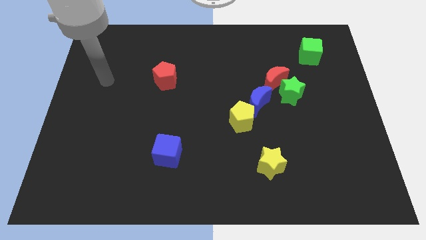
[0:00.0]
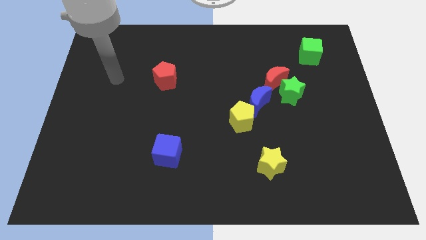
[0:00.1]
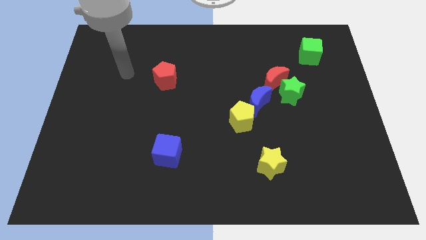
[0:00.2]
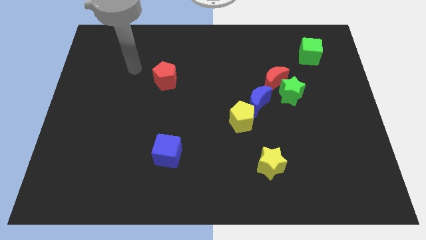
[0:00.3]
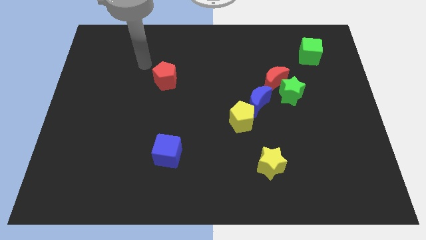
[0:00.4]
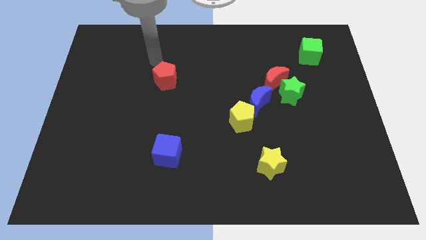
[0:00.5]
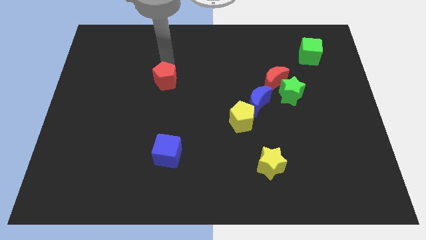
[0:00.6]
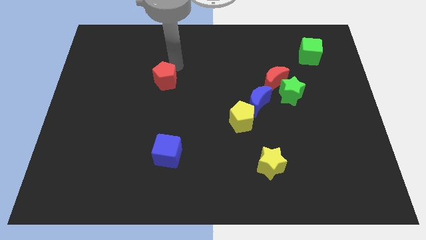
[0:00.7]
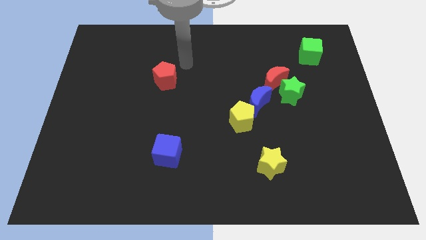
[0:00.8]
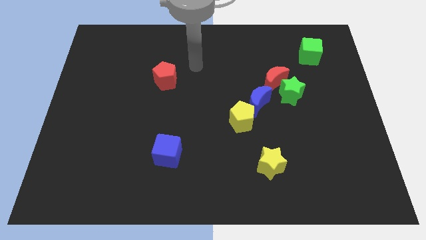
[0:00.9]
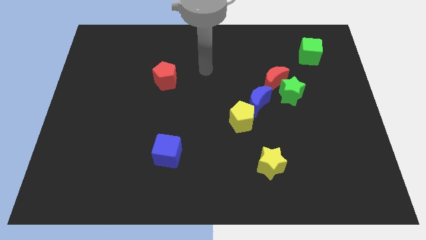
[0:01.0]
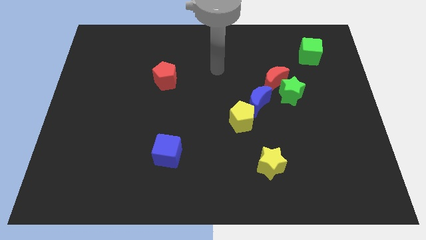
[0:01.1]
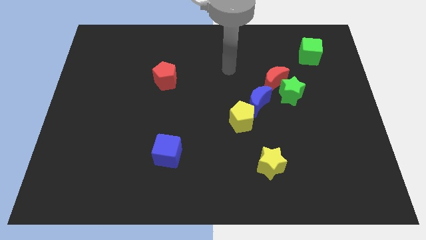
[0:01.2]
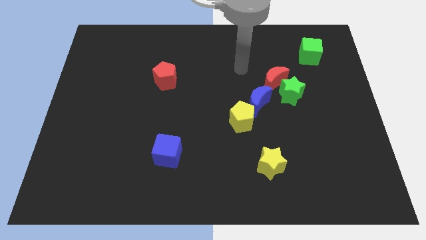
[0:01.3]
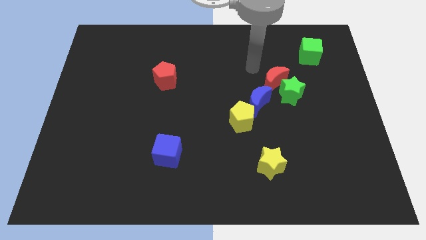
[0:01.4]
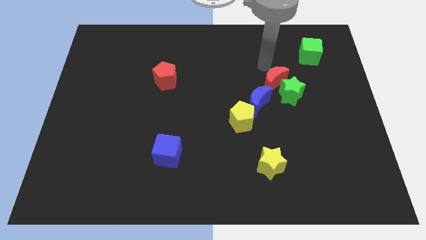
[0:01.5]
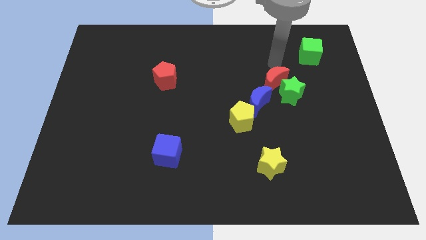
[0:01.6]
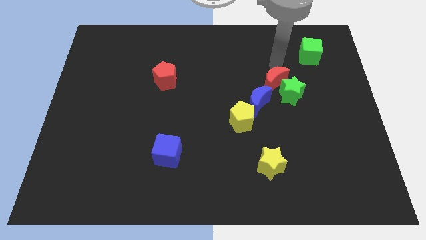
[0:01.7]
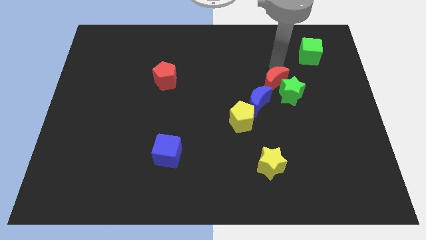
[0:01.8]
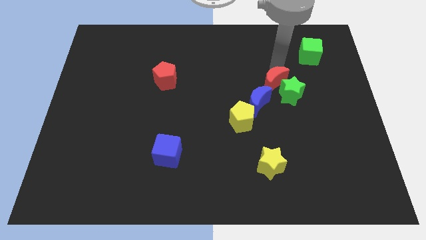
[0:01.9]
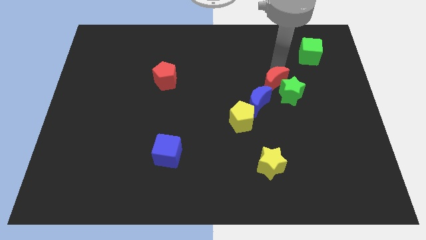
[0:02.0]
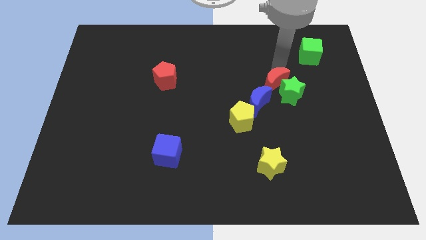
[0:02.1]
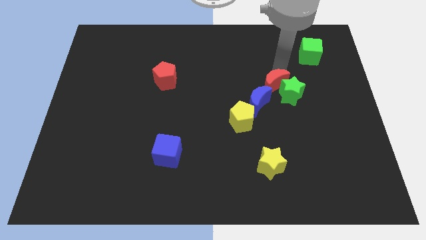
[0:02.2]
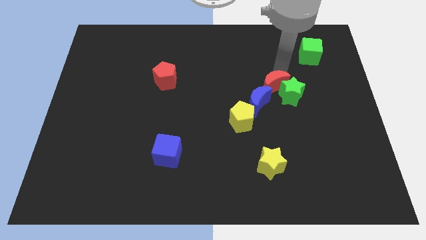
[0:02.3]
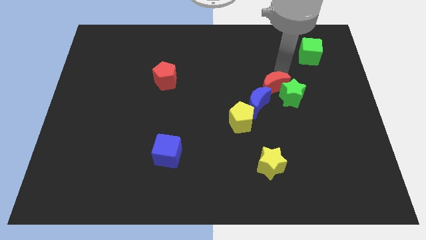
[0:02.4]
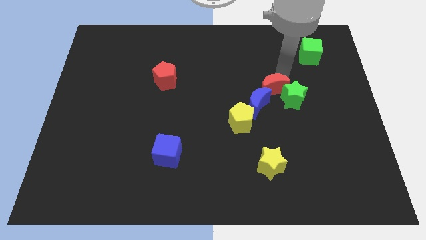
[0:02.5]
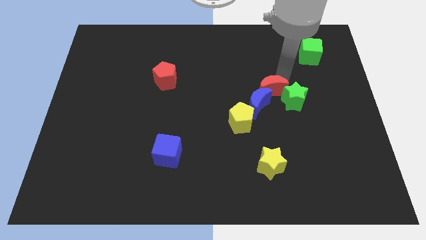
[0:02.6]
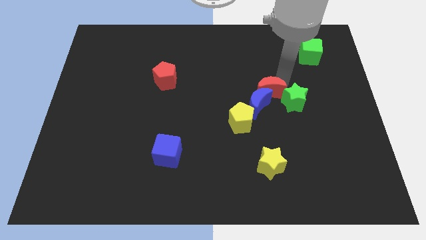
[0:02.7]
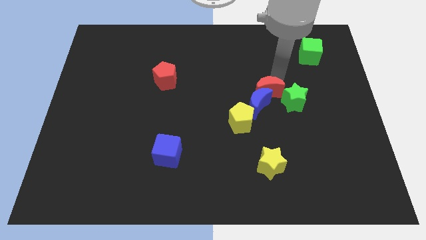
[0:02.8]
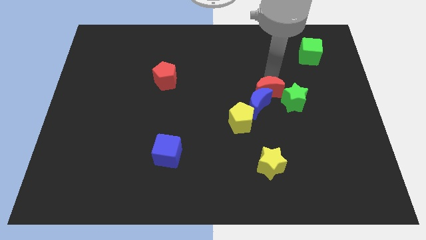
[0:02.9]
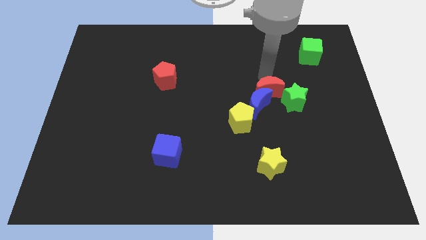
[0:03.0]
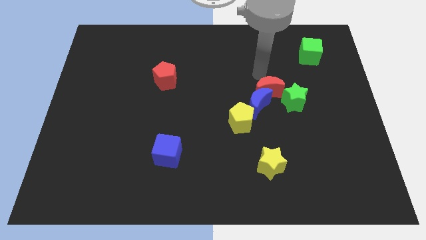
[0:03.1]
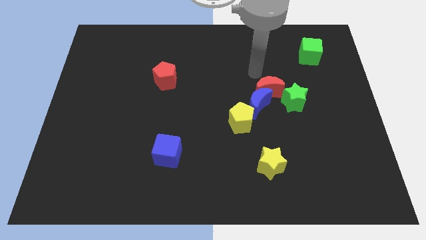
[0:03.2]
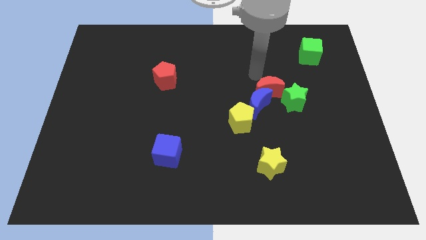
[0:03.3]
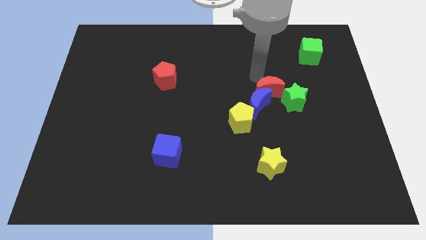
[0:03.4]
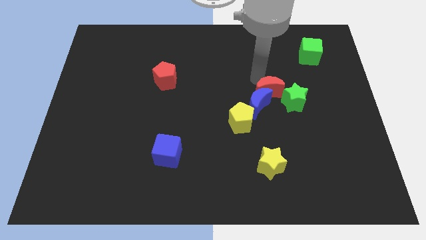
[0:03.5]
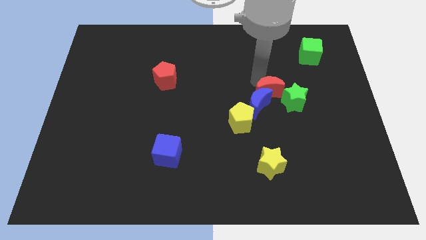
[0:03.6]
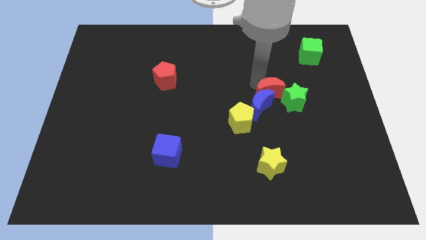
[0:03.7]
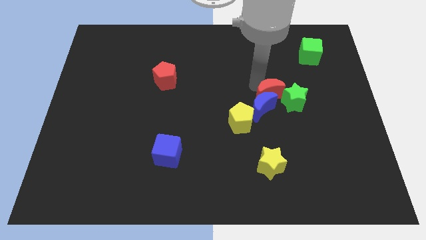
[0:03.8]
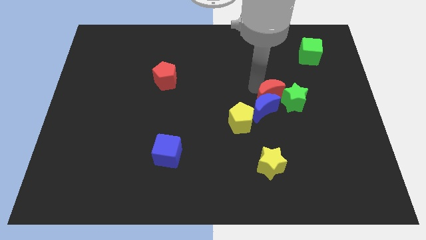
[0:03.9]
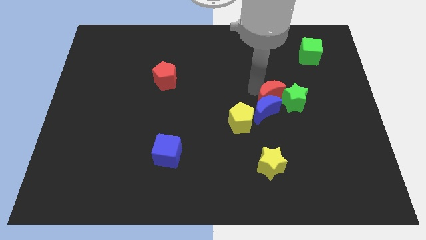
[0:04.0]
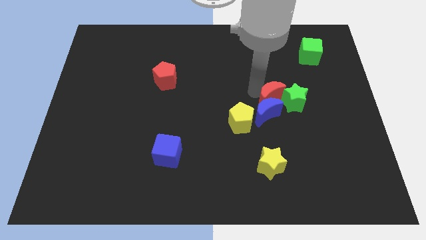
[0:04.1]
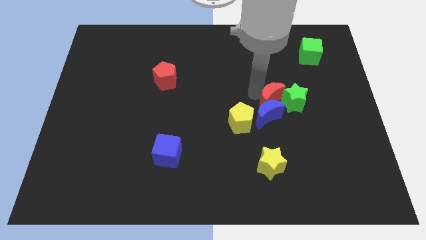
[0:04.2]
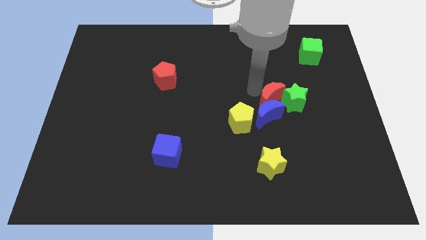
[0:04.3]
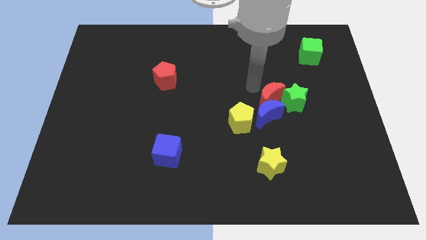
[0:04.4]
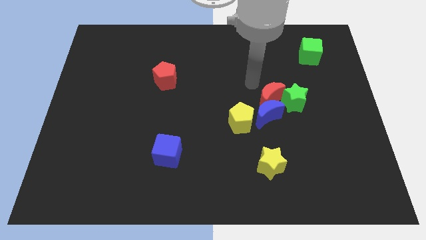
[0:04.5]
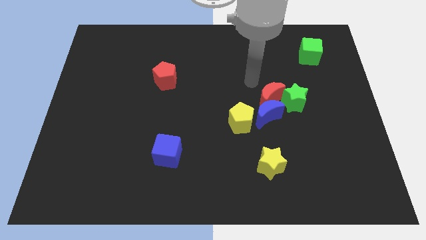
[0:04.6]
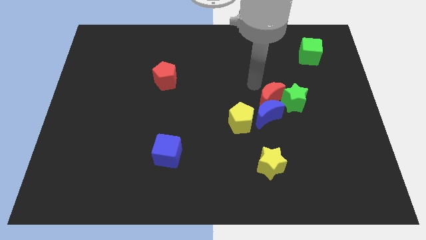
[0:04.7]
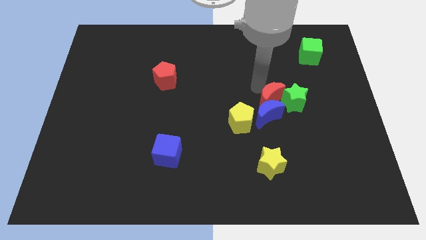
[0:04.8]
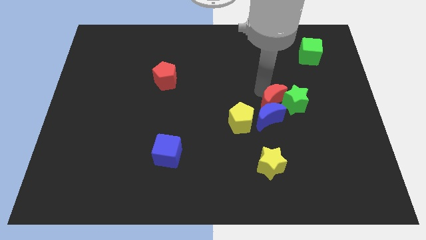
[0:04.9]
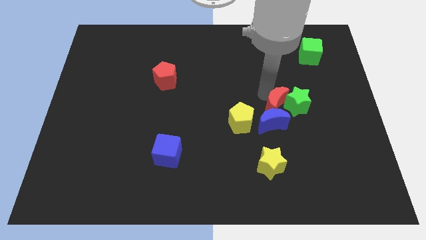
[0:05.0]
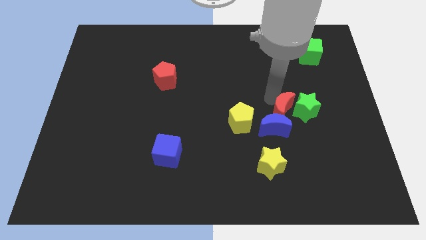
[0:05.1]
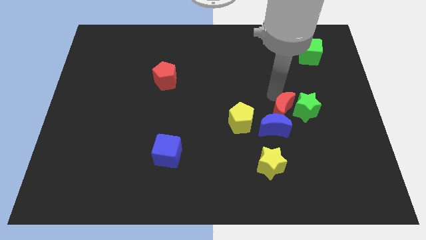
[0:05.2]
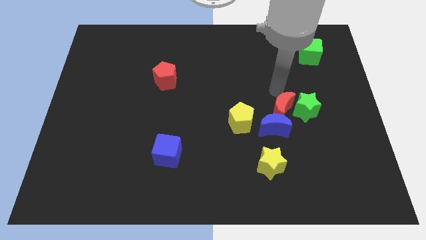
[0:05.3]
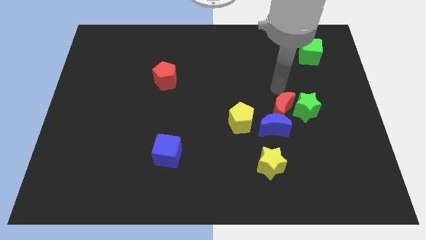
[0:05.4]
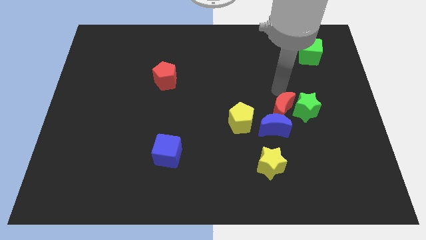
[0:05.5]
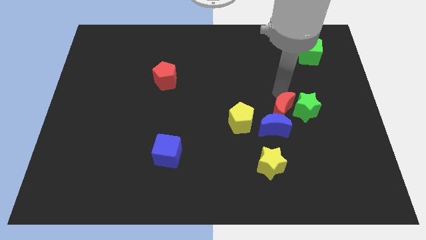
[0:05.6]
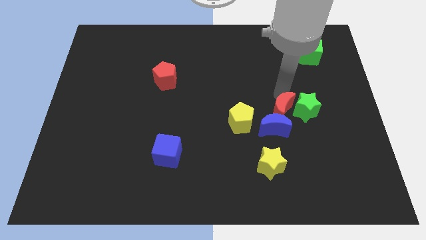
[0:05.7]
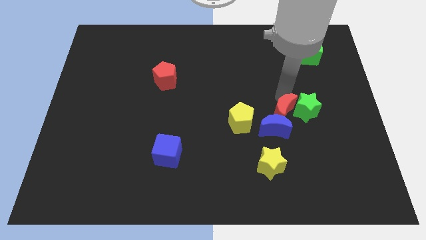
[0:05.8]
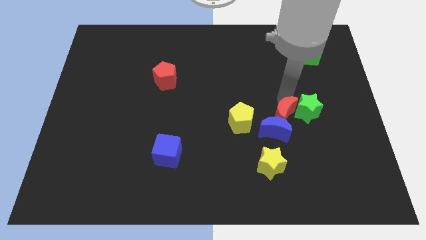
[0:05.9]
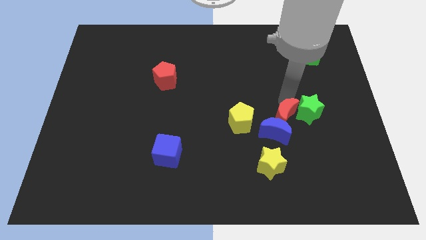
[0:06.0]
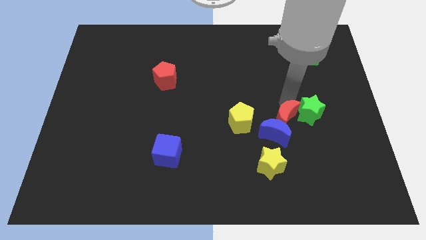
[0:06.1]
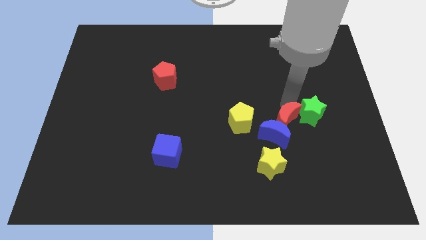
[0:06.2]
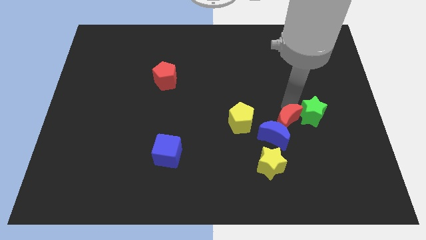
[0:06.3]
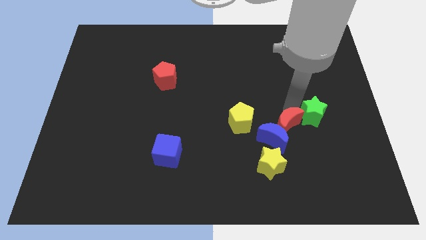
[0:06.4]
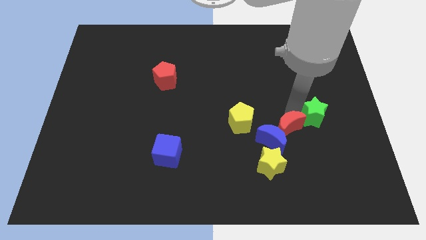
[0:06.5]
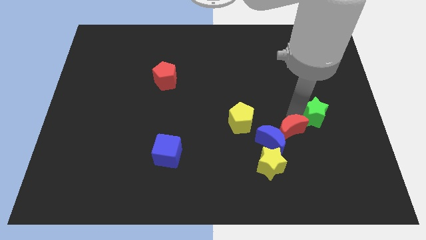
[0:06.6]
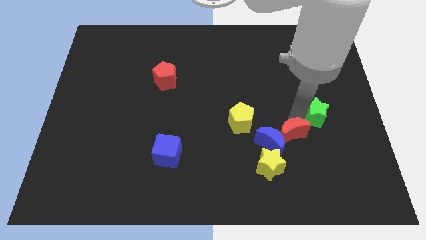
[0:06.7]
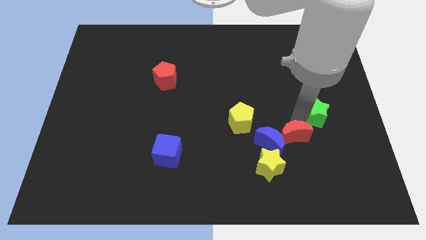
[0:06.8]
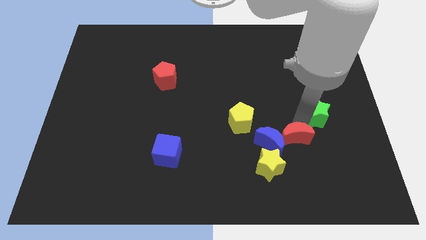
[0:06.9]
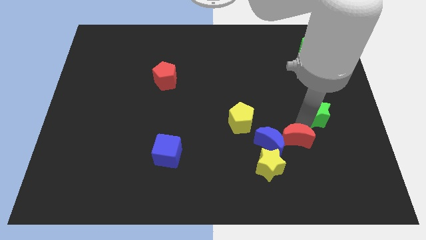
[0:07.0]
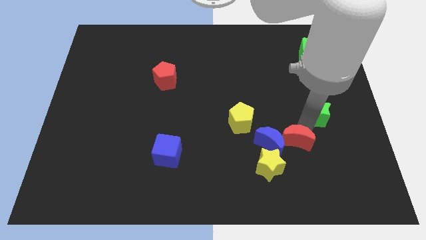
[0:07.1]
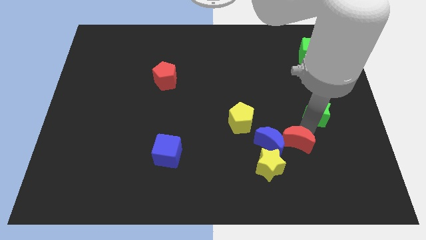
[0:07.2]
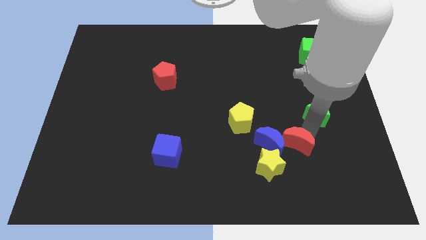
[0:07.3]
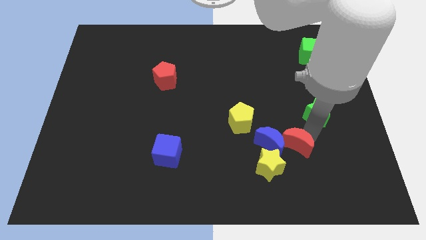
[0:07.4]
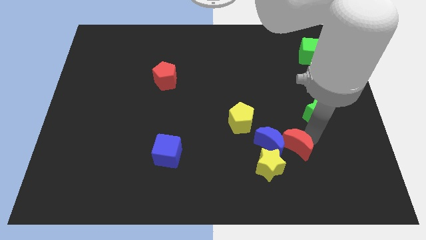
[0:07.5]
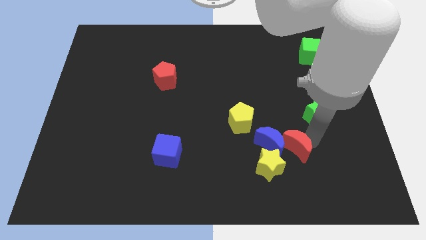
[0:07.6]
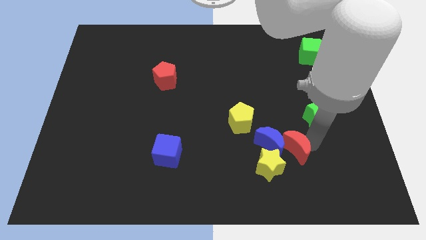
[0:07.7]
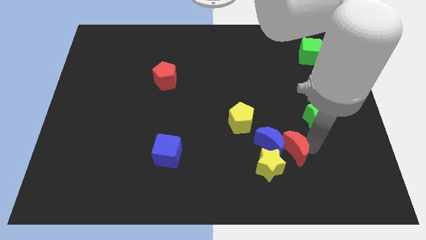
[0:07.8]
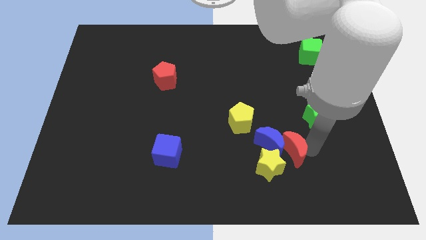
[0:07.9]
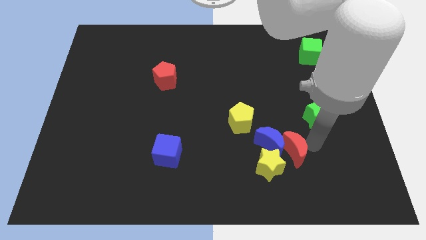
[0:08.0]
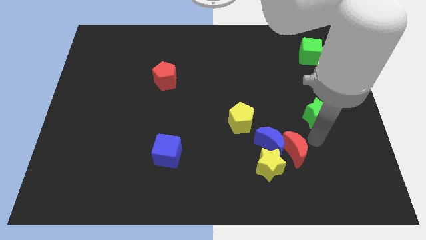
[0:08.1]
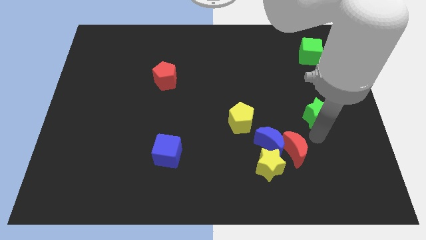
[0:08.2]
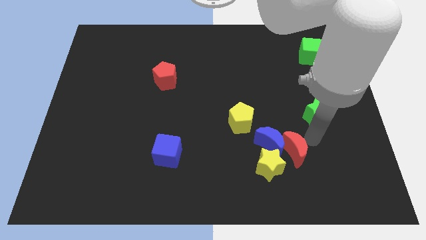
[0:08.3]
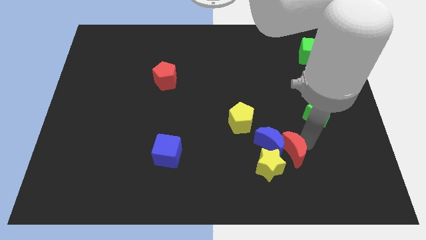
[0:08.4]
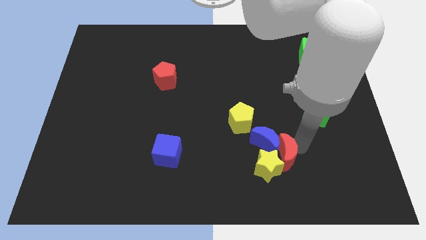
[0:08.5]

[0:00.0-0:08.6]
move the red moon close to the yellow star
